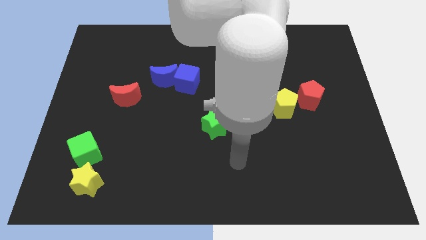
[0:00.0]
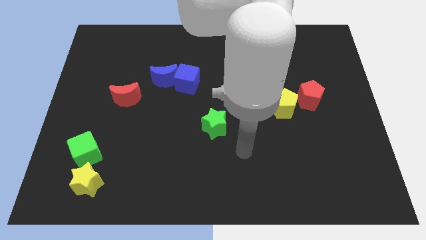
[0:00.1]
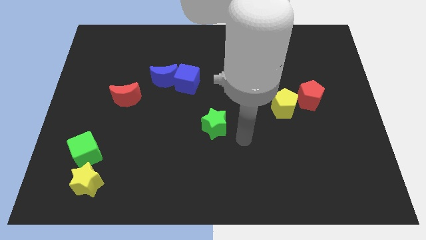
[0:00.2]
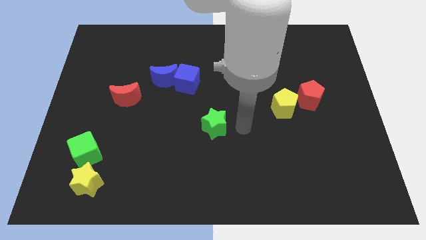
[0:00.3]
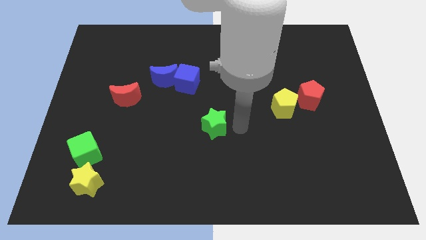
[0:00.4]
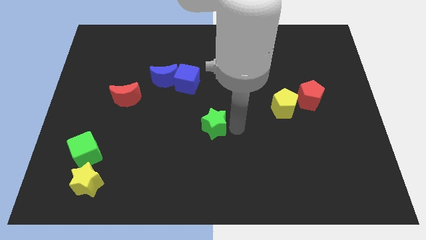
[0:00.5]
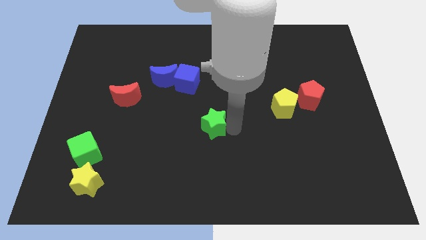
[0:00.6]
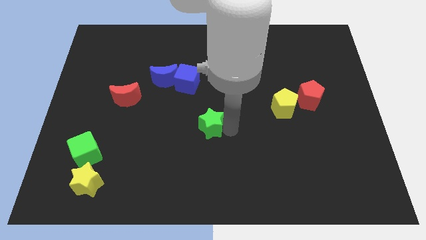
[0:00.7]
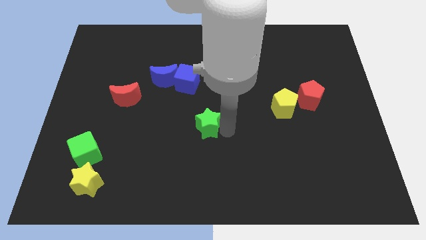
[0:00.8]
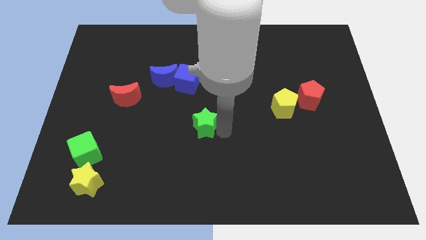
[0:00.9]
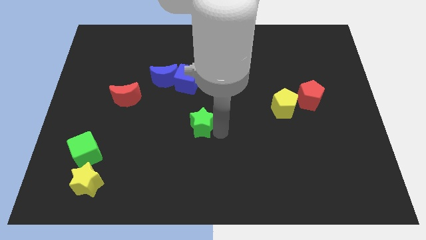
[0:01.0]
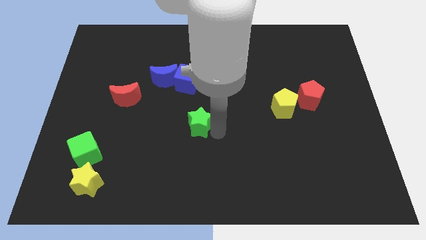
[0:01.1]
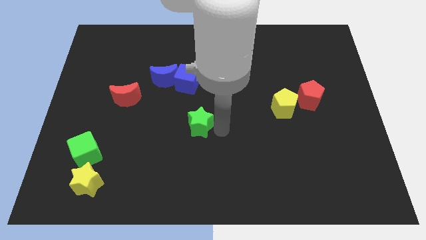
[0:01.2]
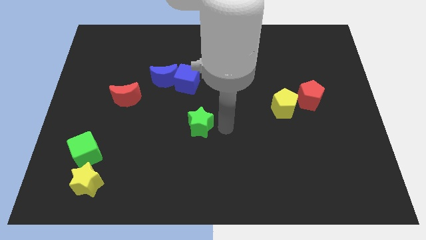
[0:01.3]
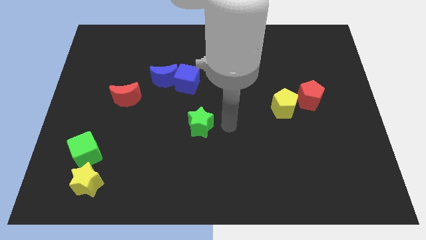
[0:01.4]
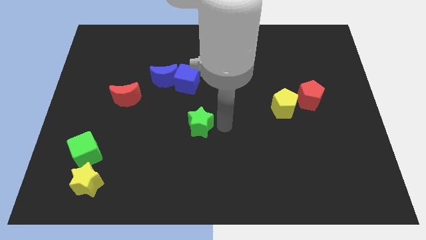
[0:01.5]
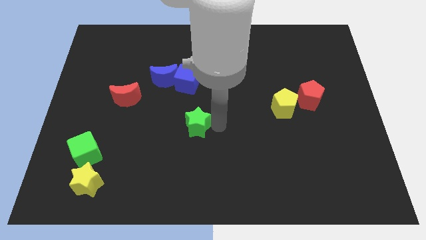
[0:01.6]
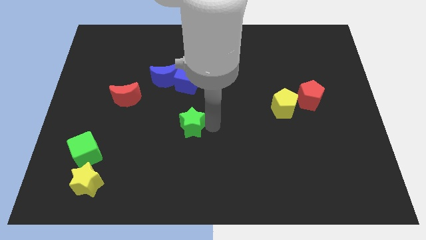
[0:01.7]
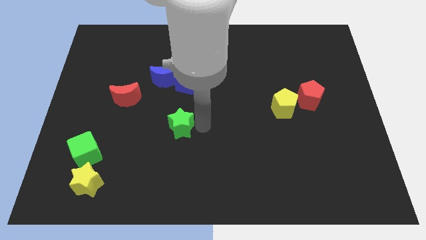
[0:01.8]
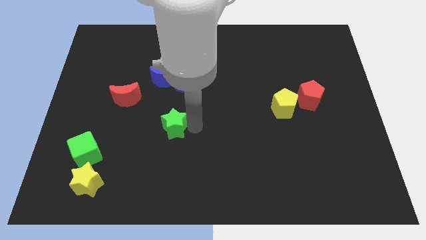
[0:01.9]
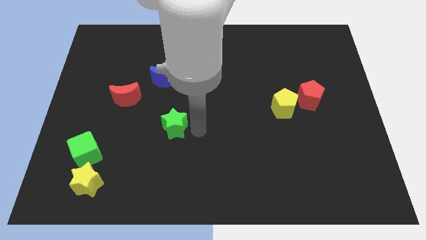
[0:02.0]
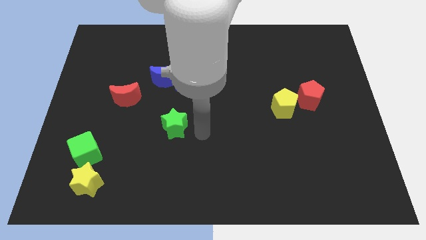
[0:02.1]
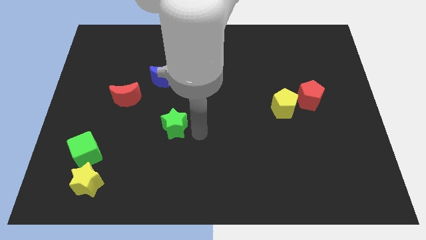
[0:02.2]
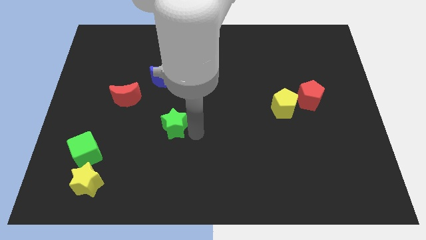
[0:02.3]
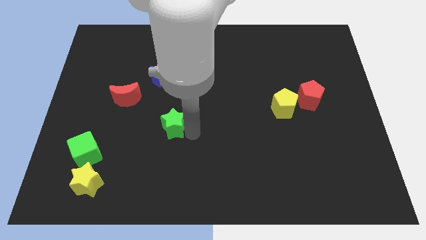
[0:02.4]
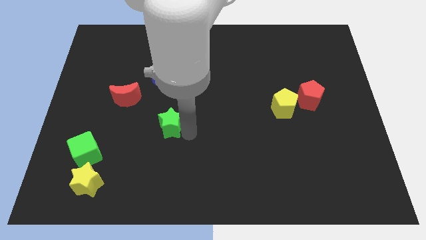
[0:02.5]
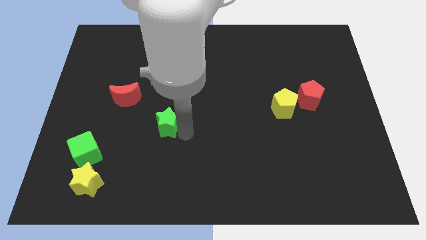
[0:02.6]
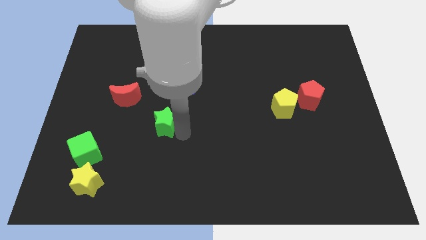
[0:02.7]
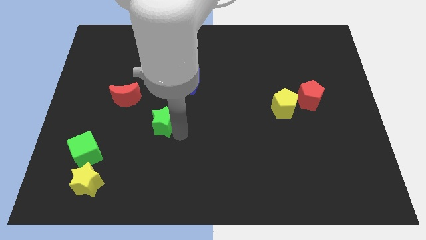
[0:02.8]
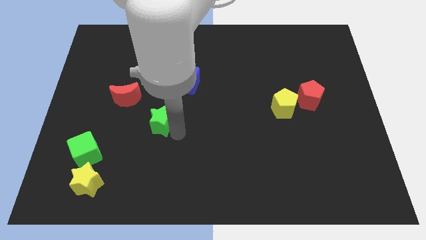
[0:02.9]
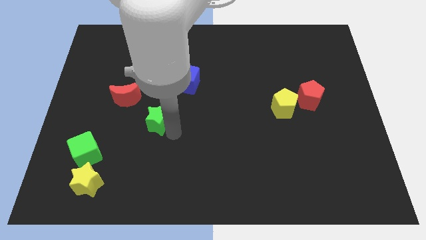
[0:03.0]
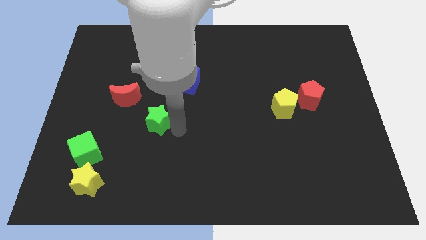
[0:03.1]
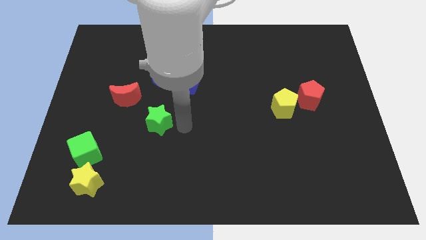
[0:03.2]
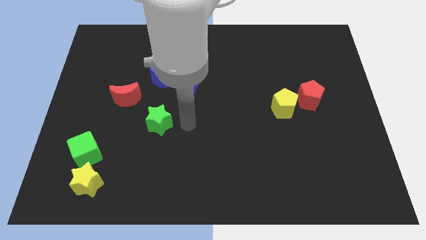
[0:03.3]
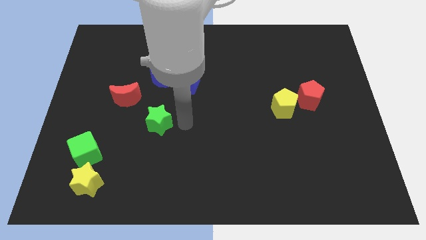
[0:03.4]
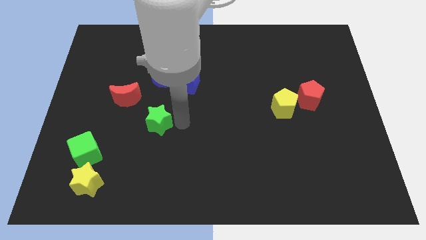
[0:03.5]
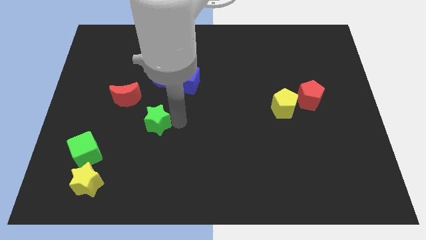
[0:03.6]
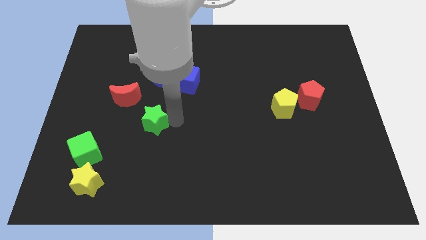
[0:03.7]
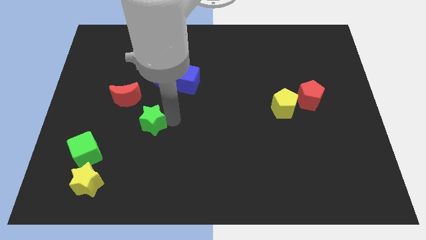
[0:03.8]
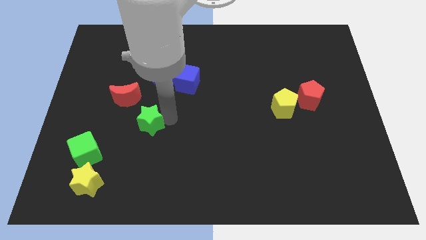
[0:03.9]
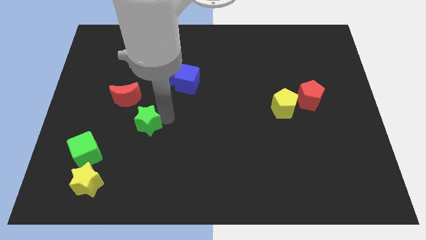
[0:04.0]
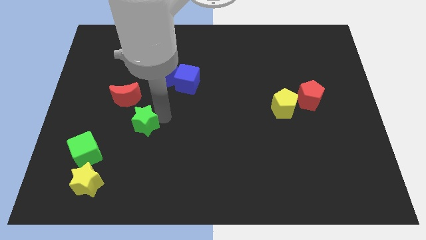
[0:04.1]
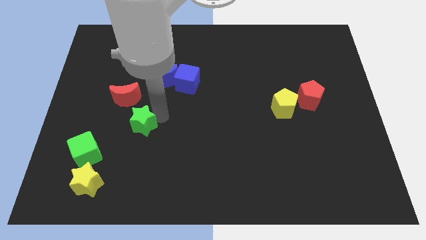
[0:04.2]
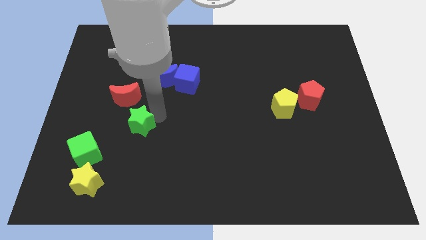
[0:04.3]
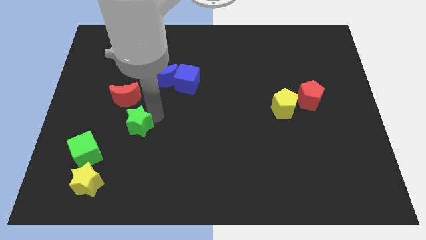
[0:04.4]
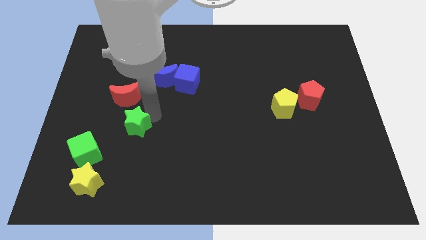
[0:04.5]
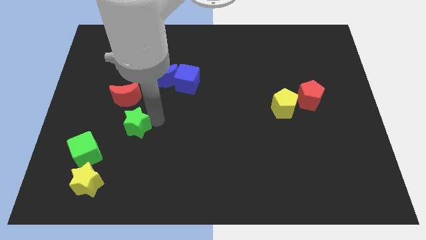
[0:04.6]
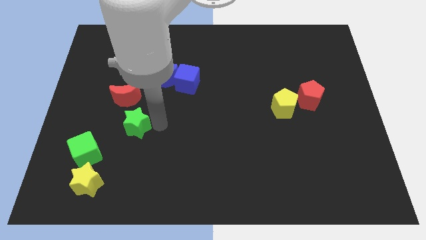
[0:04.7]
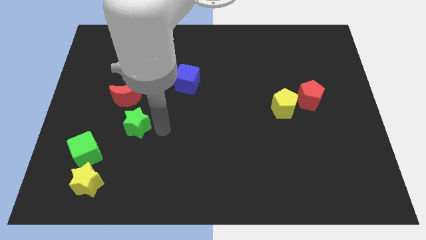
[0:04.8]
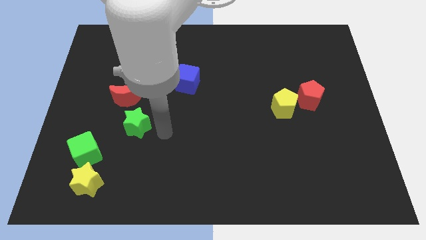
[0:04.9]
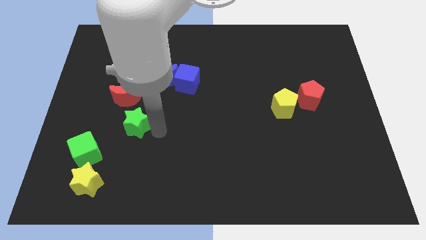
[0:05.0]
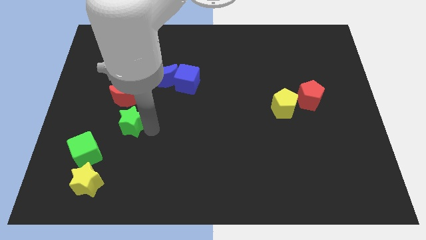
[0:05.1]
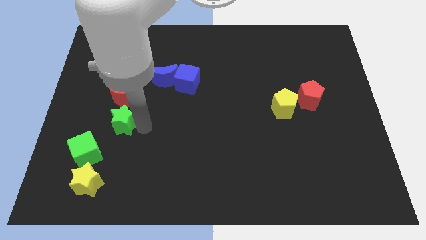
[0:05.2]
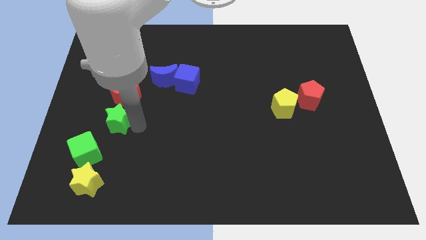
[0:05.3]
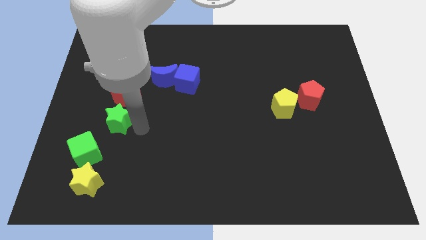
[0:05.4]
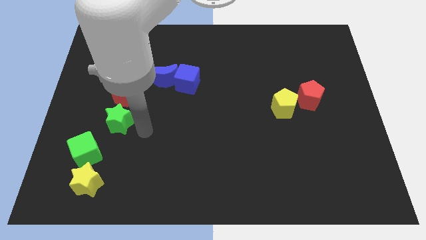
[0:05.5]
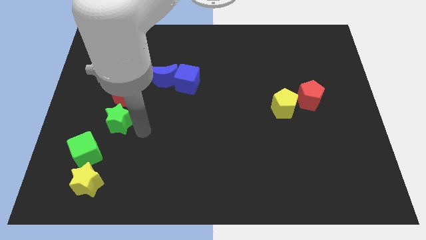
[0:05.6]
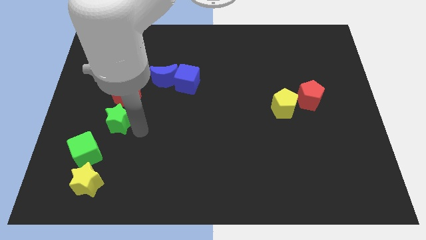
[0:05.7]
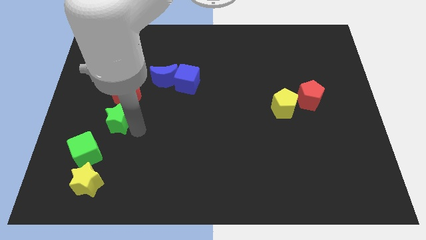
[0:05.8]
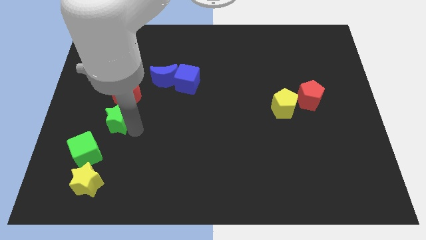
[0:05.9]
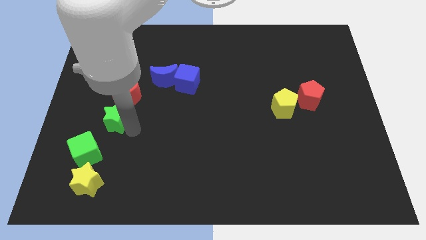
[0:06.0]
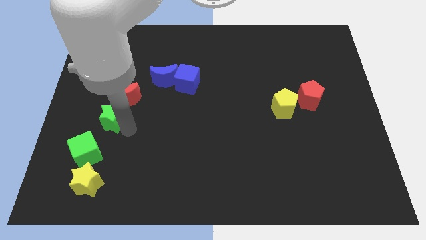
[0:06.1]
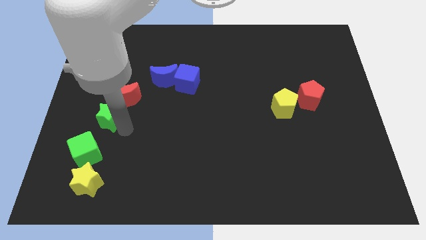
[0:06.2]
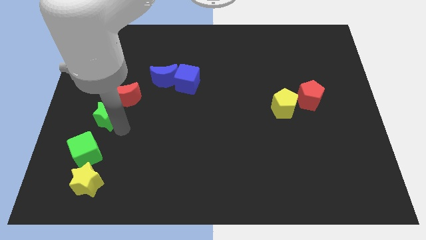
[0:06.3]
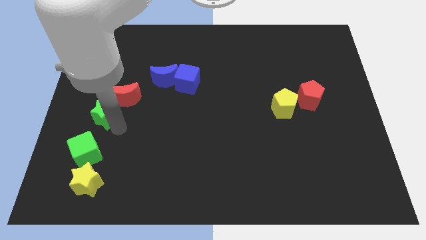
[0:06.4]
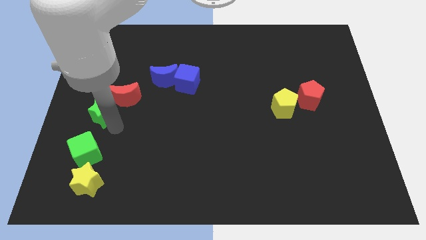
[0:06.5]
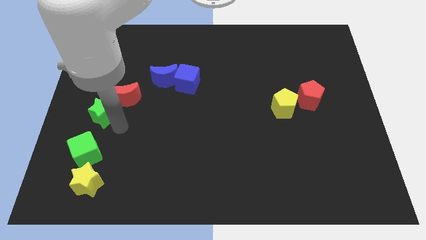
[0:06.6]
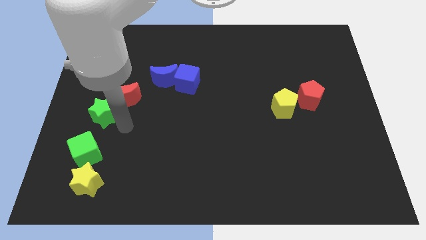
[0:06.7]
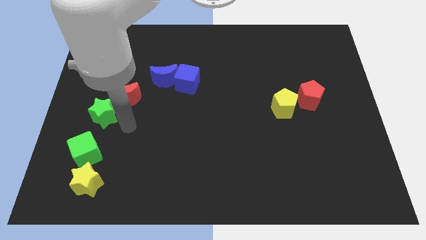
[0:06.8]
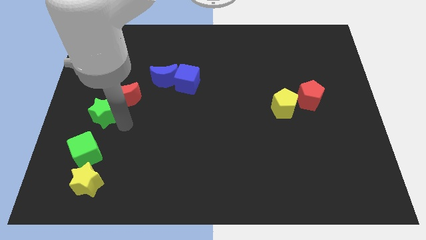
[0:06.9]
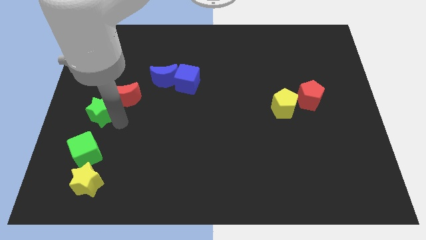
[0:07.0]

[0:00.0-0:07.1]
push the green star to the left side of the board
